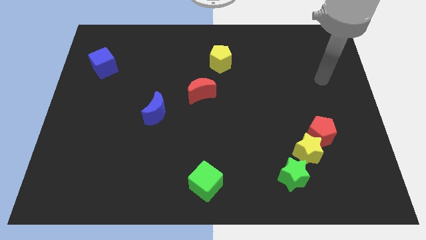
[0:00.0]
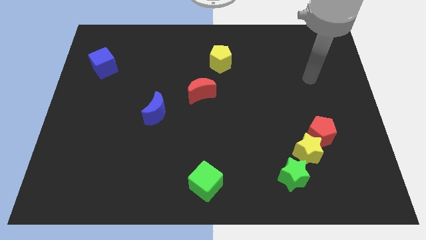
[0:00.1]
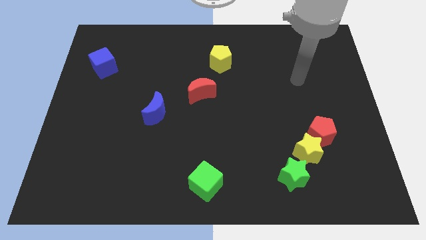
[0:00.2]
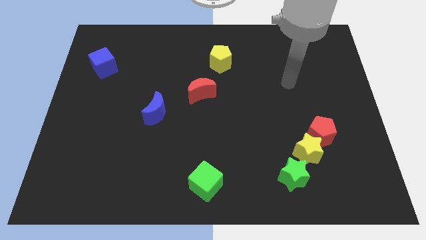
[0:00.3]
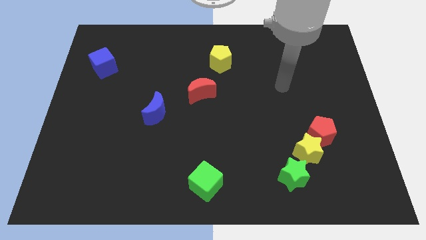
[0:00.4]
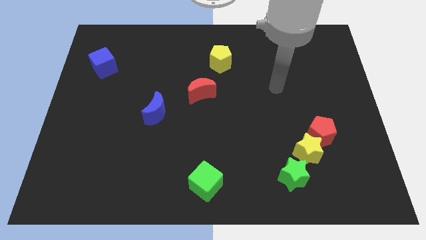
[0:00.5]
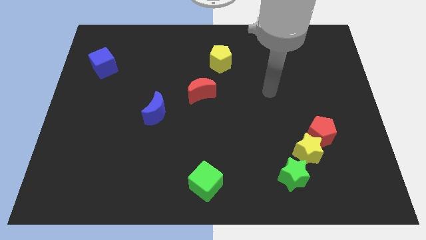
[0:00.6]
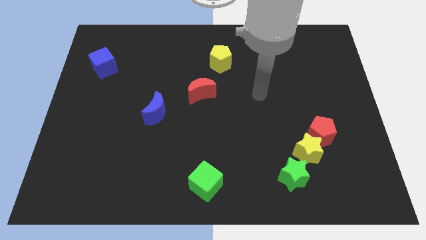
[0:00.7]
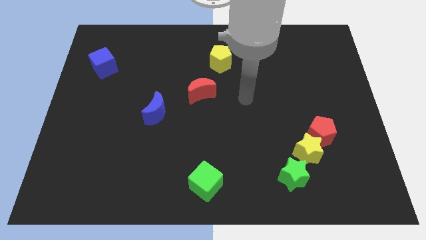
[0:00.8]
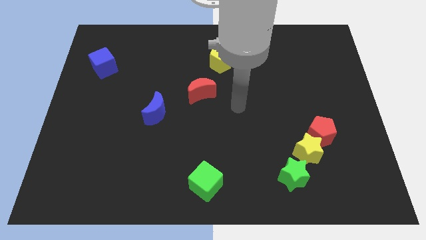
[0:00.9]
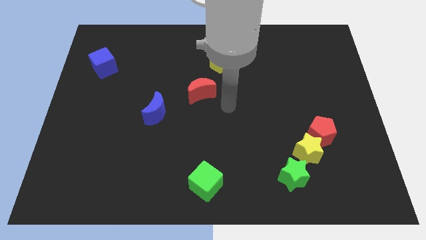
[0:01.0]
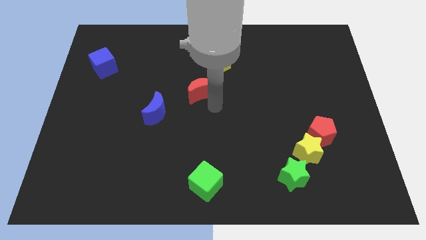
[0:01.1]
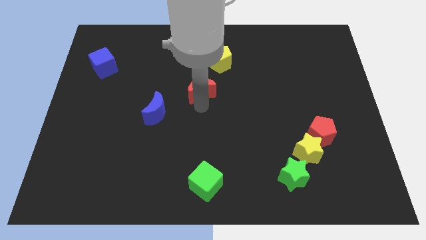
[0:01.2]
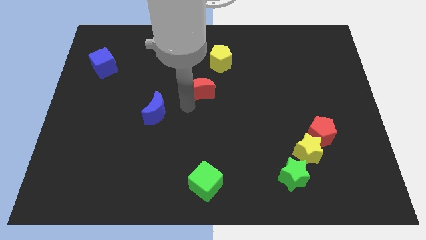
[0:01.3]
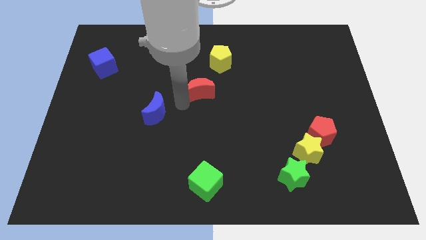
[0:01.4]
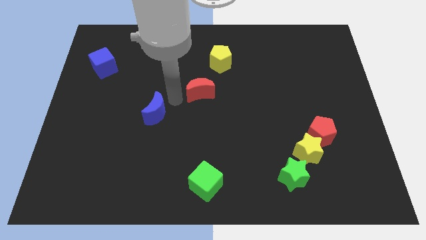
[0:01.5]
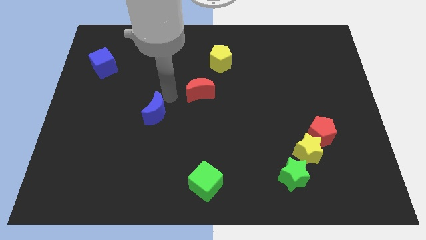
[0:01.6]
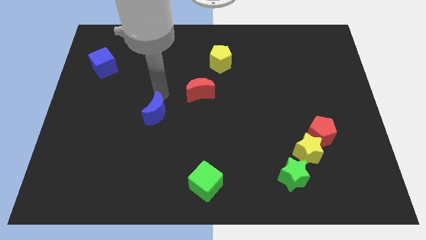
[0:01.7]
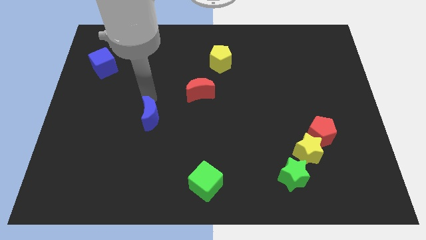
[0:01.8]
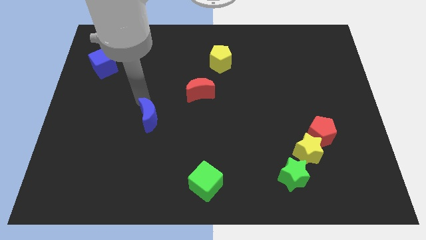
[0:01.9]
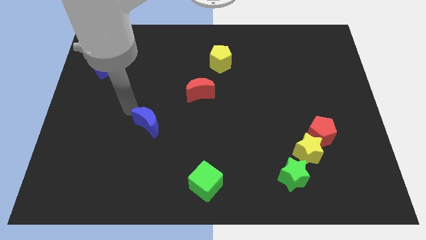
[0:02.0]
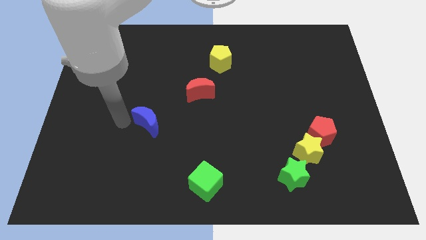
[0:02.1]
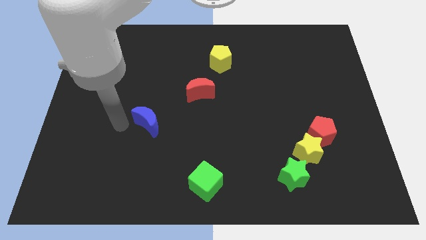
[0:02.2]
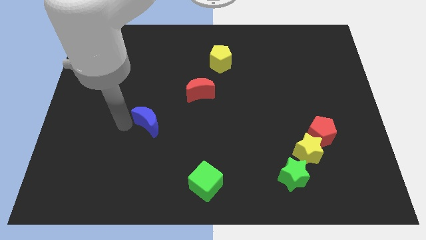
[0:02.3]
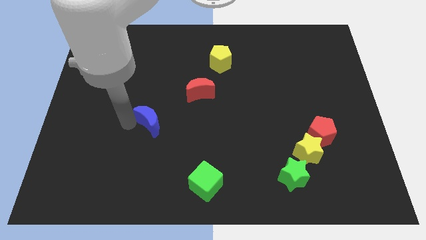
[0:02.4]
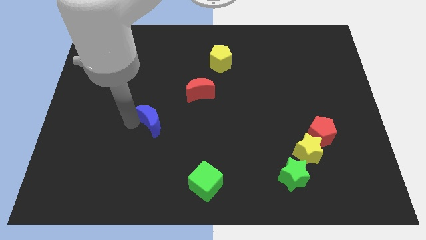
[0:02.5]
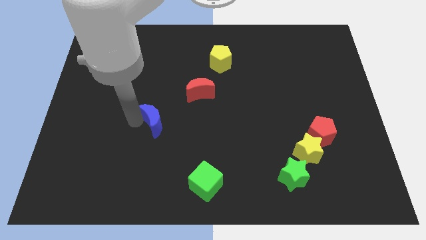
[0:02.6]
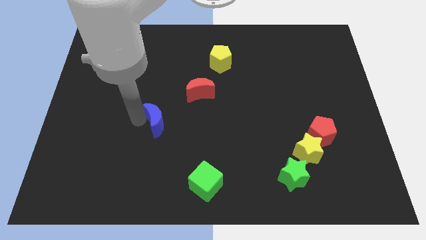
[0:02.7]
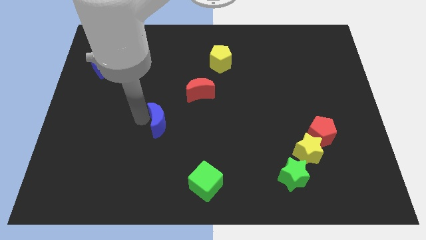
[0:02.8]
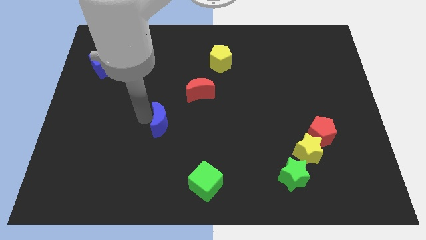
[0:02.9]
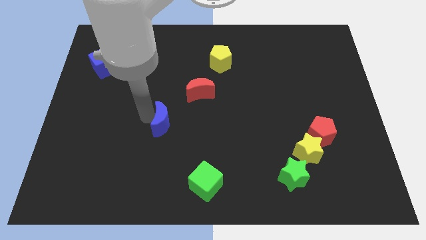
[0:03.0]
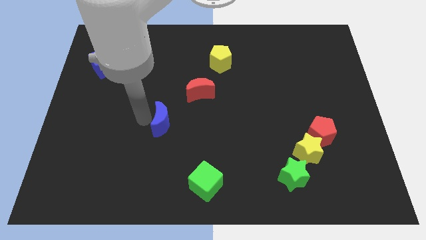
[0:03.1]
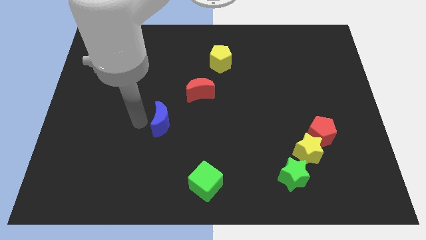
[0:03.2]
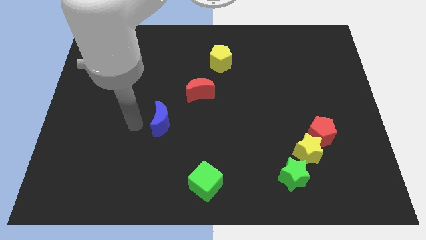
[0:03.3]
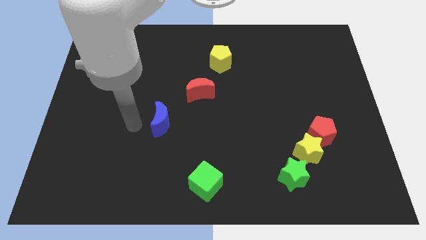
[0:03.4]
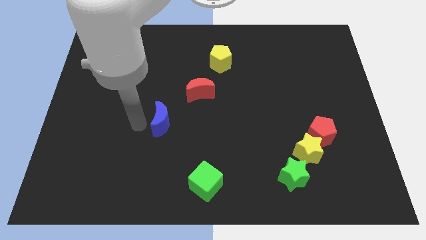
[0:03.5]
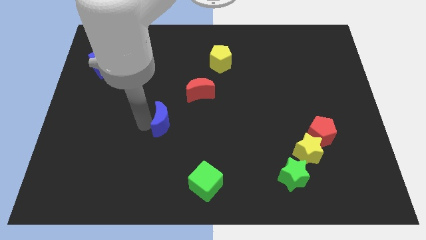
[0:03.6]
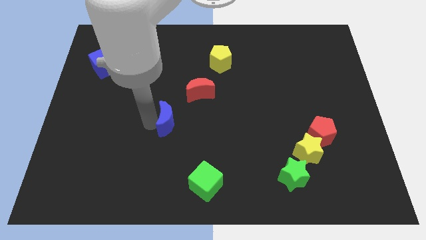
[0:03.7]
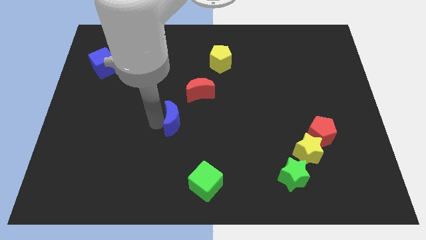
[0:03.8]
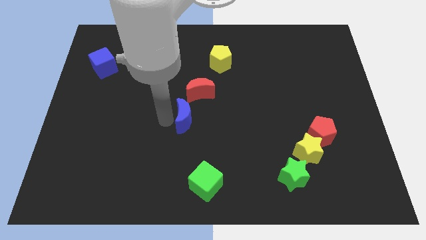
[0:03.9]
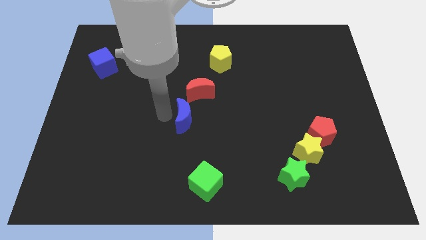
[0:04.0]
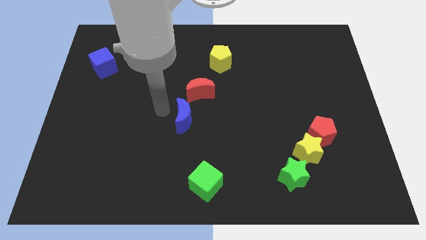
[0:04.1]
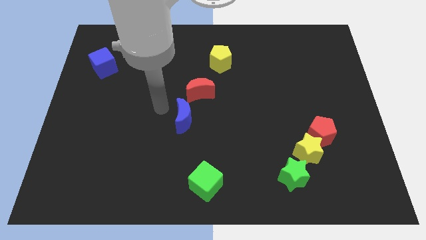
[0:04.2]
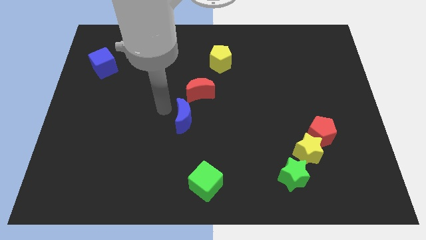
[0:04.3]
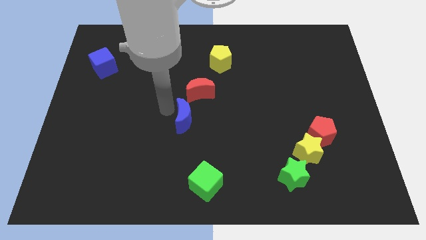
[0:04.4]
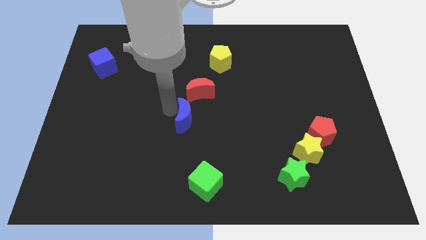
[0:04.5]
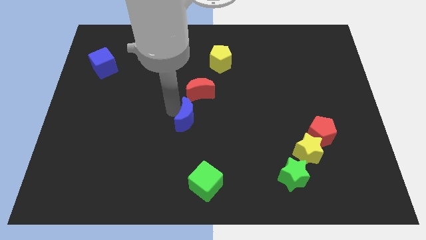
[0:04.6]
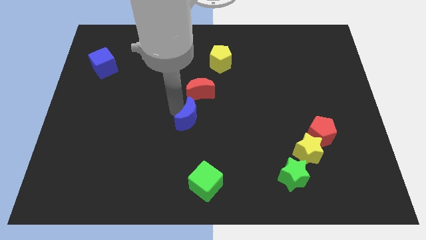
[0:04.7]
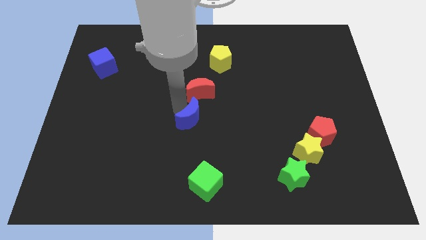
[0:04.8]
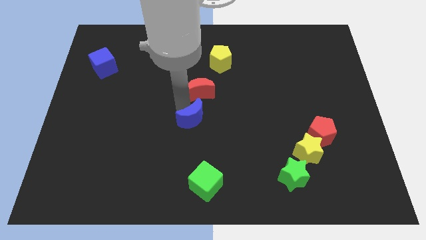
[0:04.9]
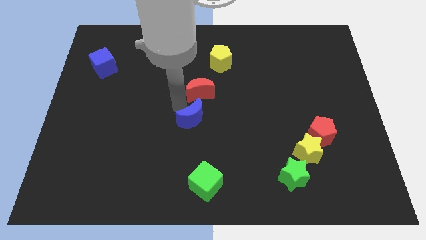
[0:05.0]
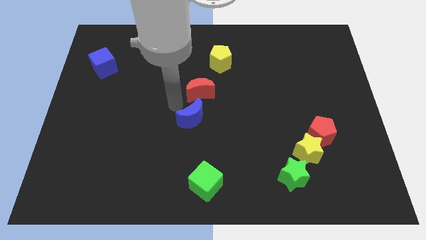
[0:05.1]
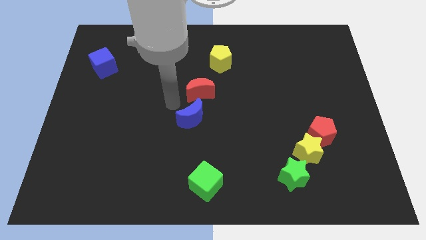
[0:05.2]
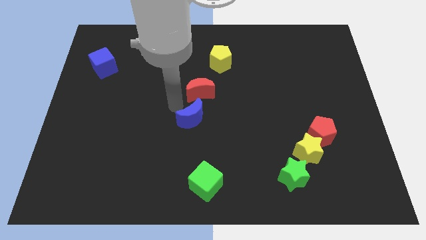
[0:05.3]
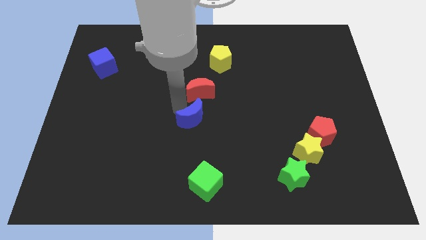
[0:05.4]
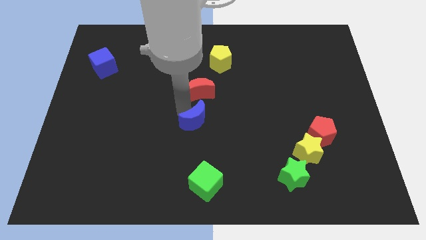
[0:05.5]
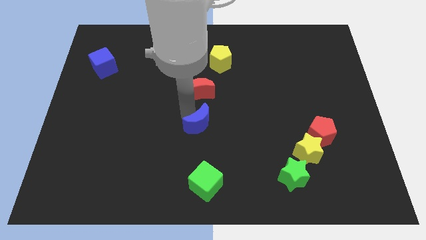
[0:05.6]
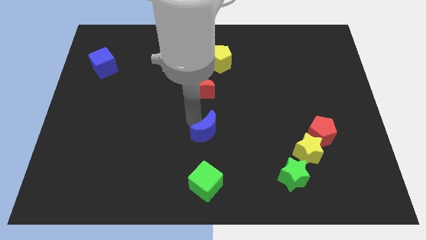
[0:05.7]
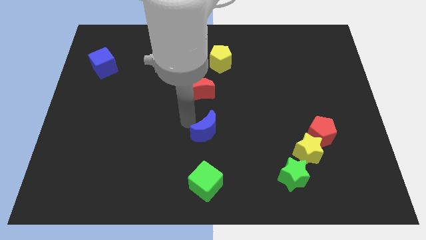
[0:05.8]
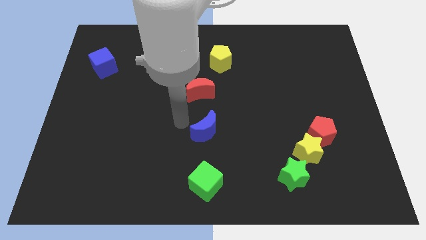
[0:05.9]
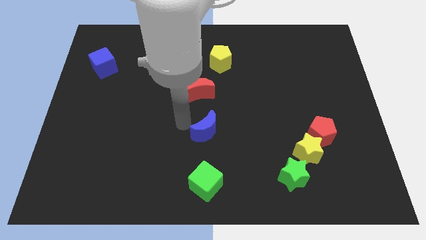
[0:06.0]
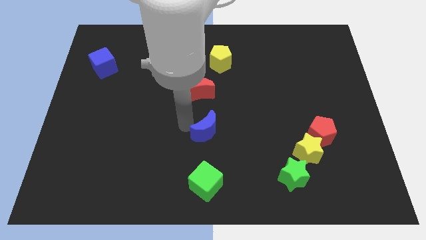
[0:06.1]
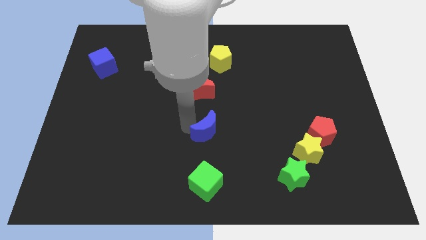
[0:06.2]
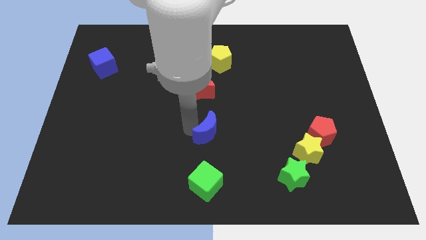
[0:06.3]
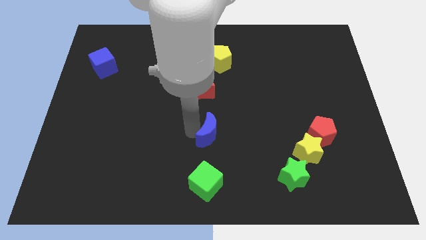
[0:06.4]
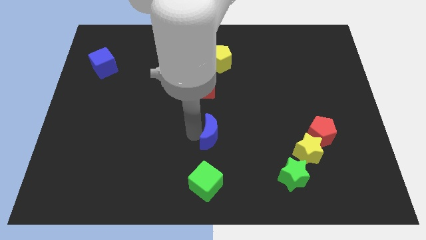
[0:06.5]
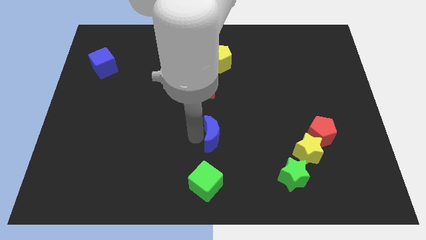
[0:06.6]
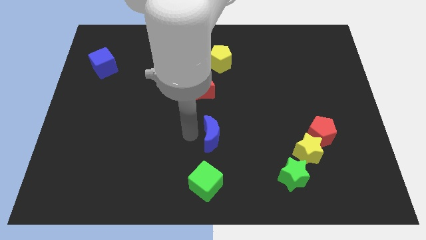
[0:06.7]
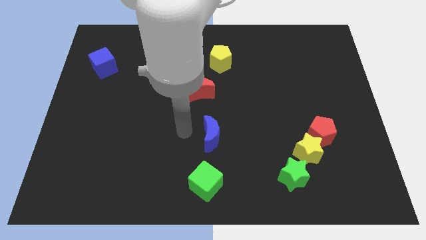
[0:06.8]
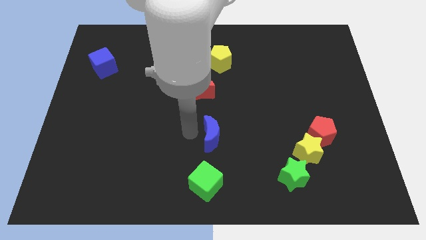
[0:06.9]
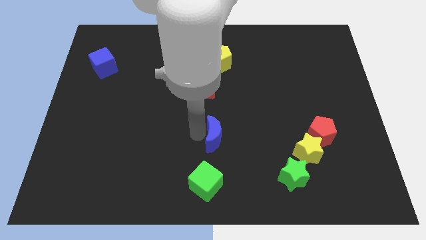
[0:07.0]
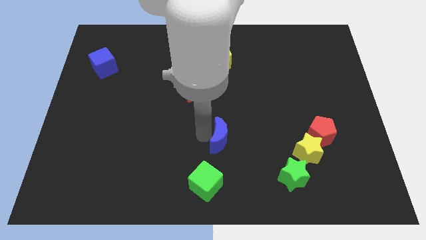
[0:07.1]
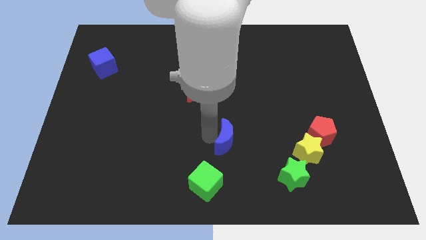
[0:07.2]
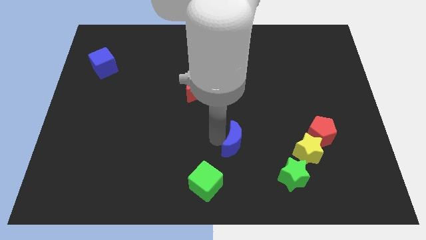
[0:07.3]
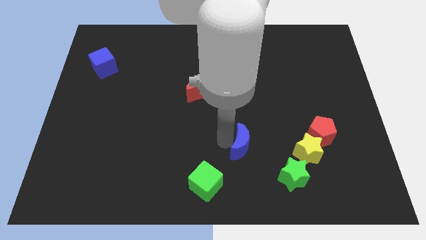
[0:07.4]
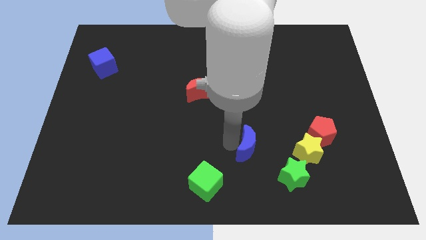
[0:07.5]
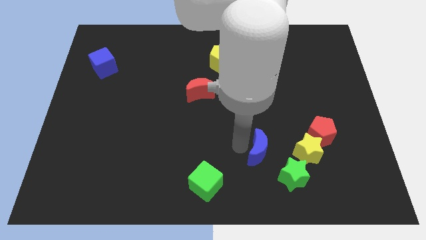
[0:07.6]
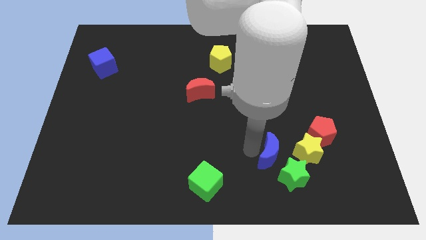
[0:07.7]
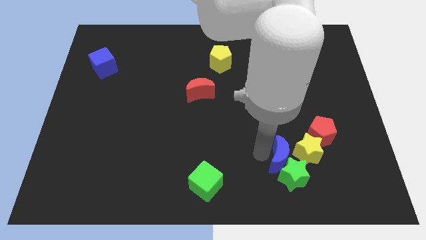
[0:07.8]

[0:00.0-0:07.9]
move the blue moon to the yellow star

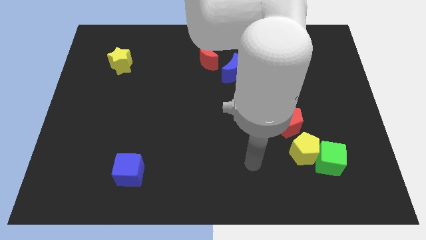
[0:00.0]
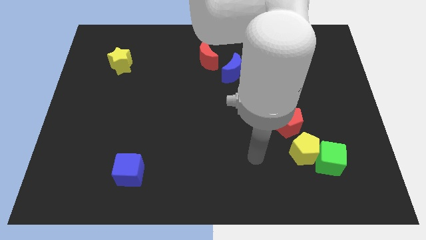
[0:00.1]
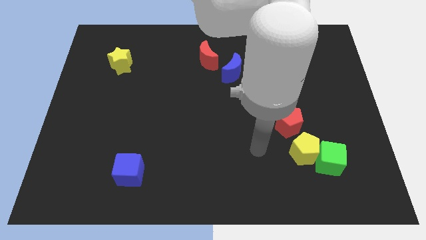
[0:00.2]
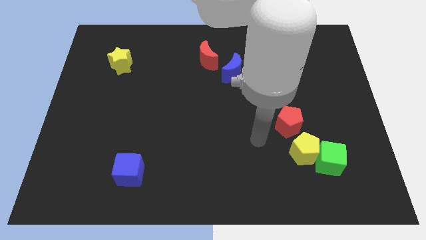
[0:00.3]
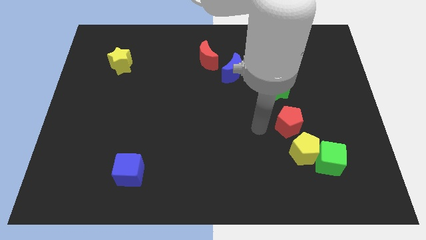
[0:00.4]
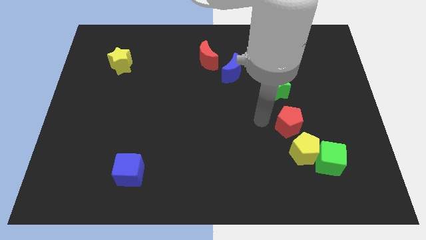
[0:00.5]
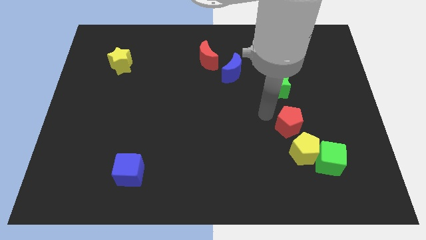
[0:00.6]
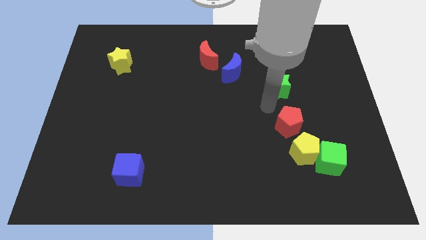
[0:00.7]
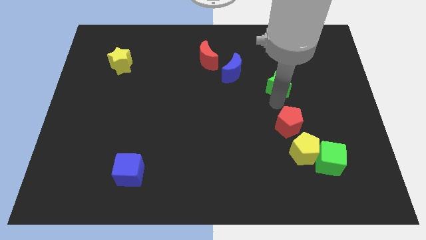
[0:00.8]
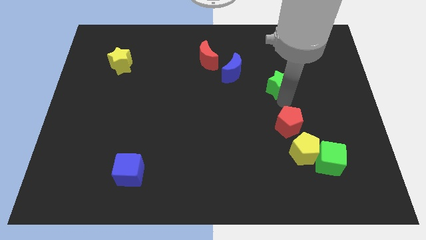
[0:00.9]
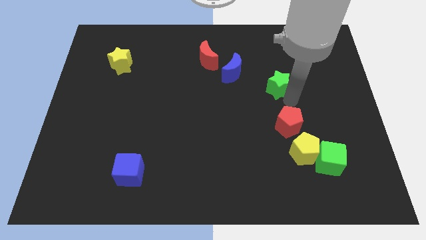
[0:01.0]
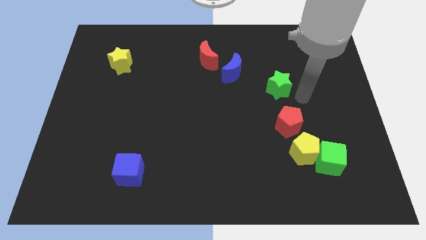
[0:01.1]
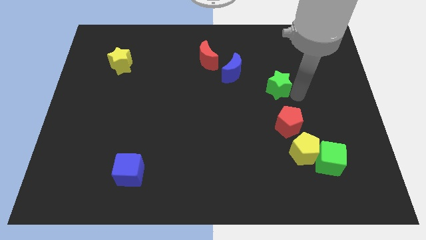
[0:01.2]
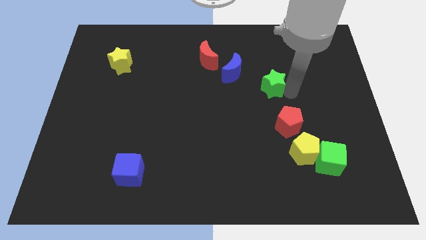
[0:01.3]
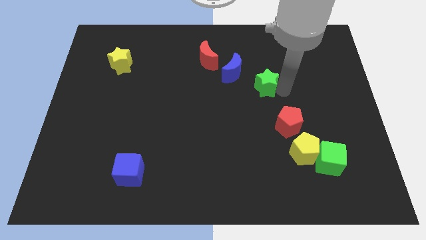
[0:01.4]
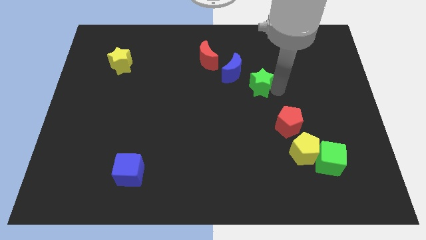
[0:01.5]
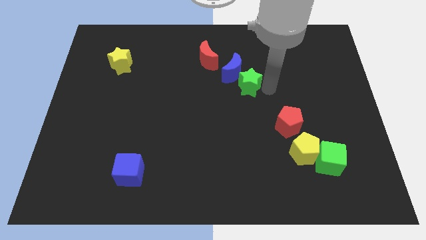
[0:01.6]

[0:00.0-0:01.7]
move the green star close to the blue moon
